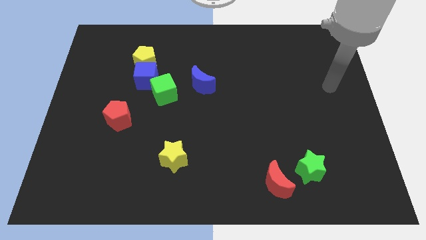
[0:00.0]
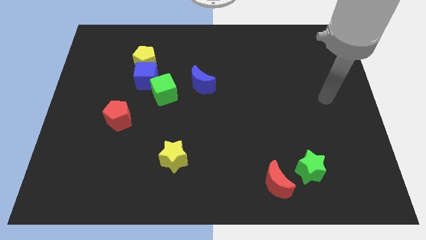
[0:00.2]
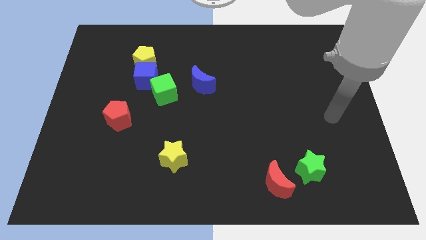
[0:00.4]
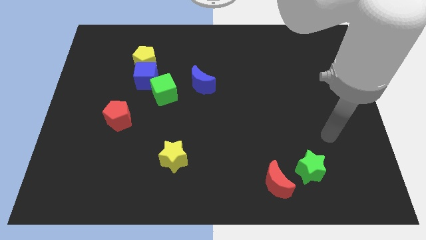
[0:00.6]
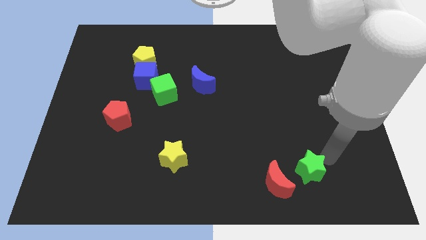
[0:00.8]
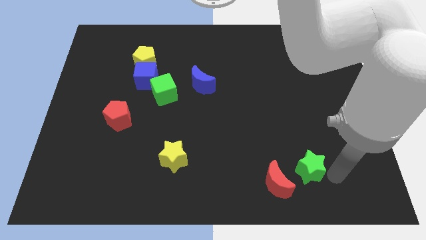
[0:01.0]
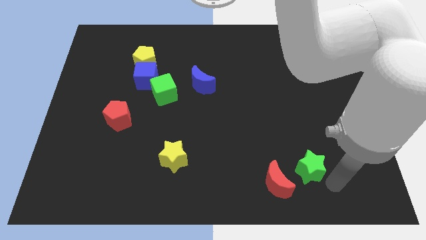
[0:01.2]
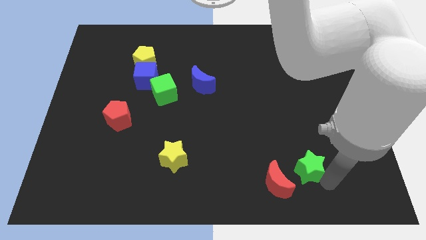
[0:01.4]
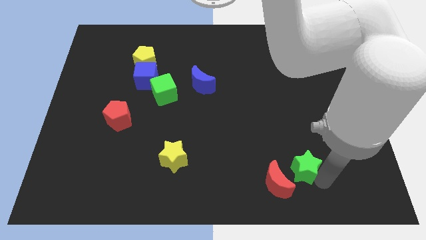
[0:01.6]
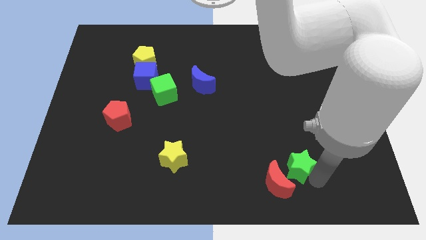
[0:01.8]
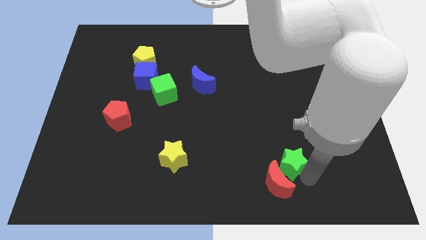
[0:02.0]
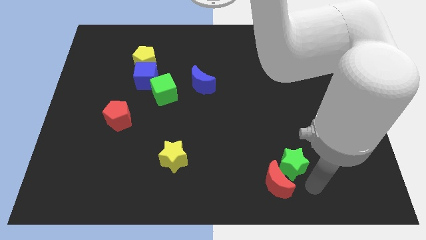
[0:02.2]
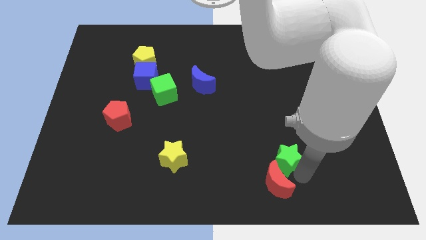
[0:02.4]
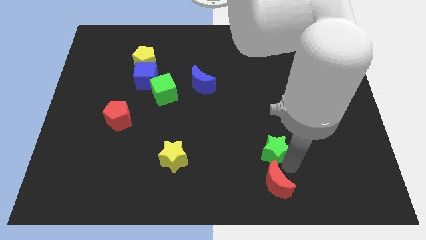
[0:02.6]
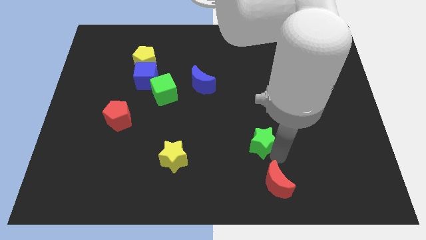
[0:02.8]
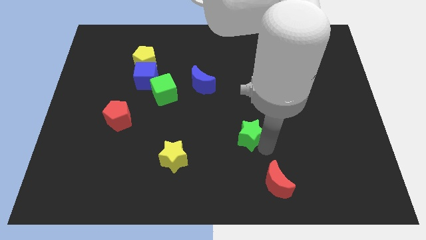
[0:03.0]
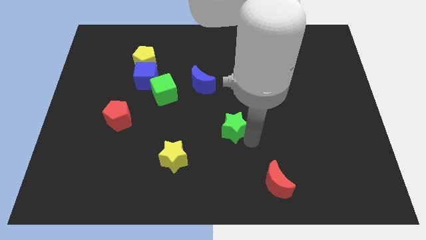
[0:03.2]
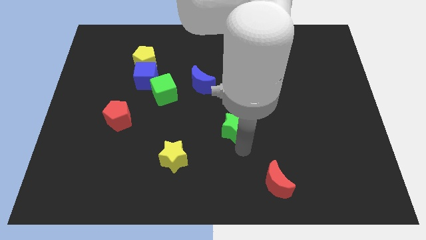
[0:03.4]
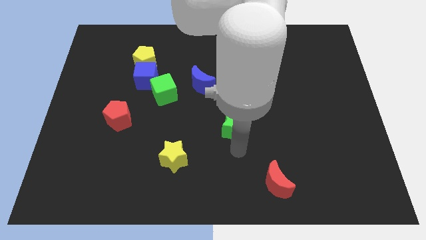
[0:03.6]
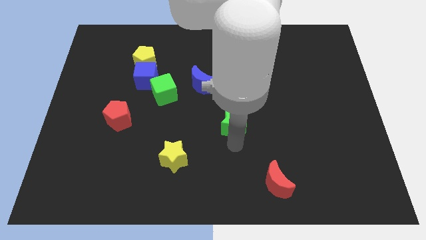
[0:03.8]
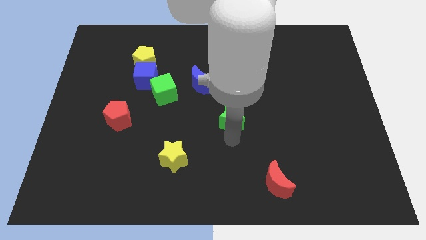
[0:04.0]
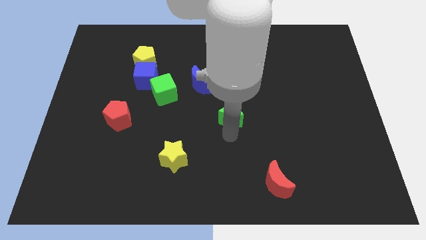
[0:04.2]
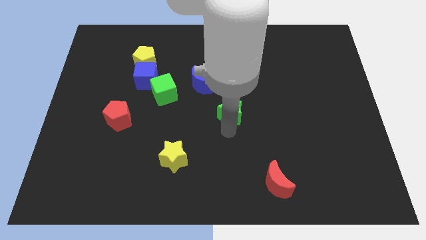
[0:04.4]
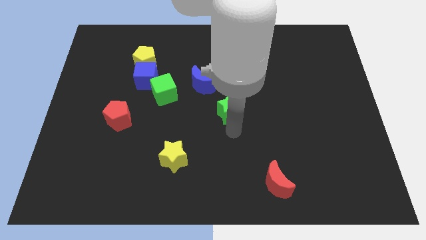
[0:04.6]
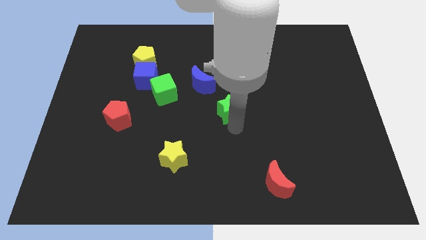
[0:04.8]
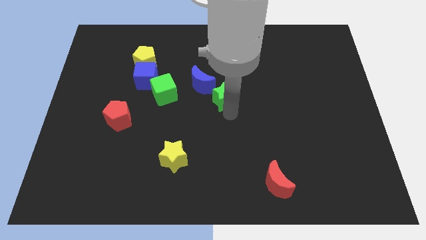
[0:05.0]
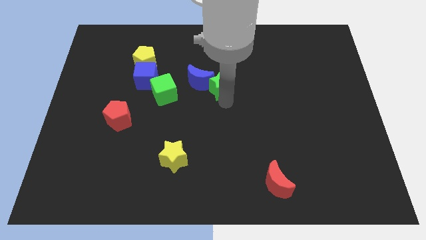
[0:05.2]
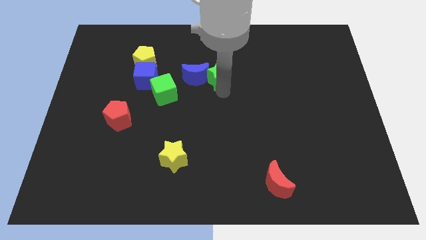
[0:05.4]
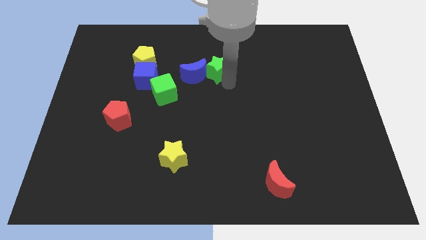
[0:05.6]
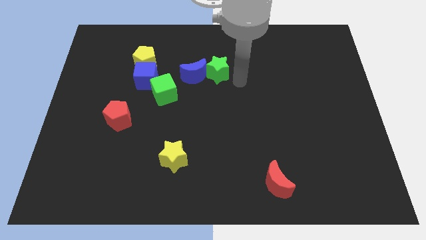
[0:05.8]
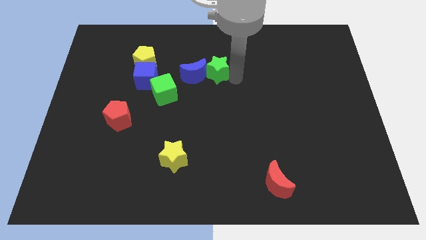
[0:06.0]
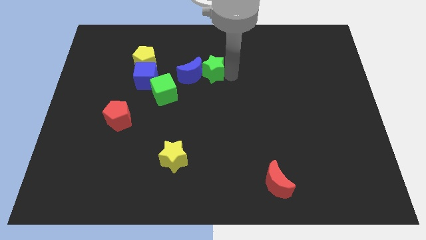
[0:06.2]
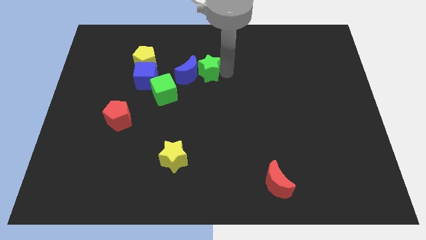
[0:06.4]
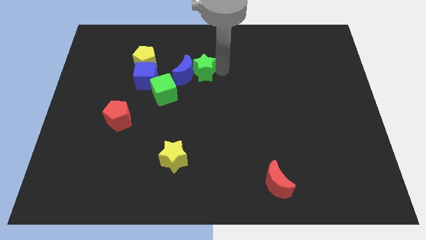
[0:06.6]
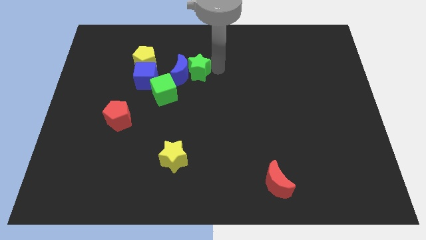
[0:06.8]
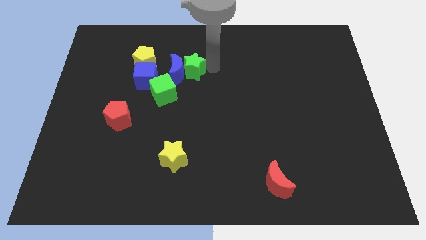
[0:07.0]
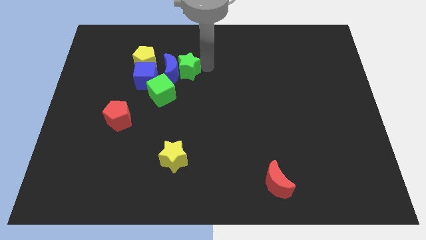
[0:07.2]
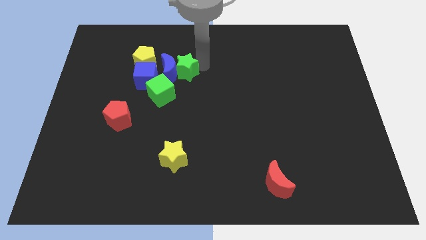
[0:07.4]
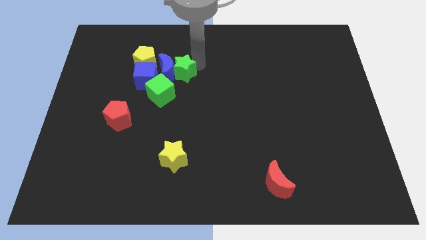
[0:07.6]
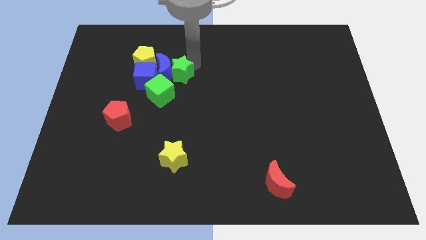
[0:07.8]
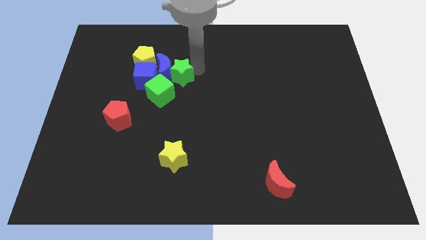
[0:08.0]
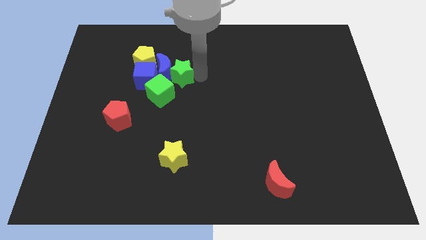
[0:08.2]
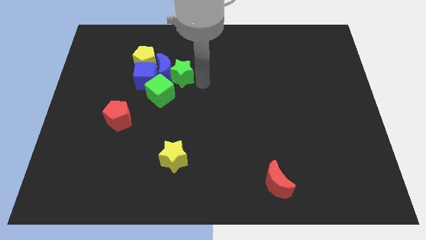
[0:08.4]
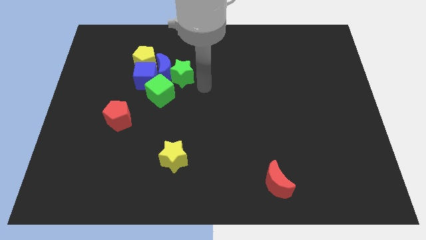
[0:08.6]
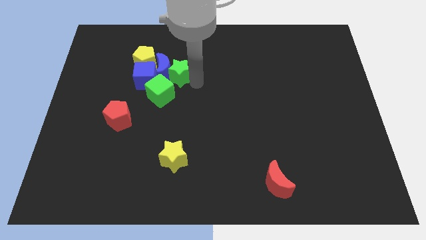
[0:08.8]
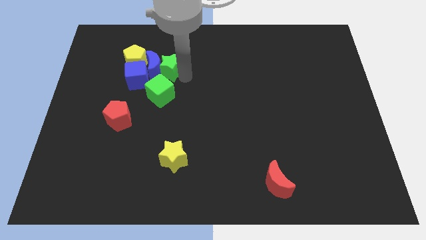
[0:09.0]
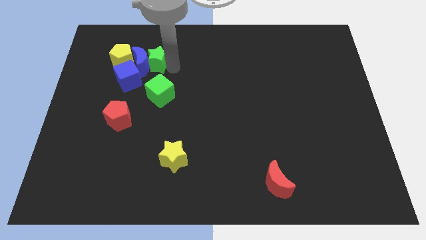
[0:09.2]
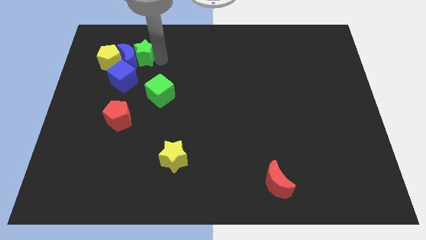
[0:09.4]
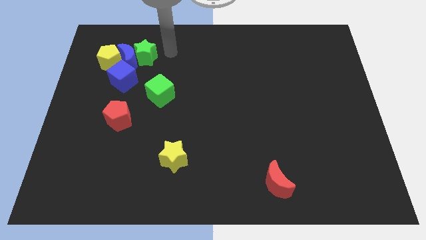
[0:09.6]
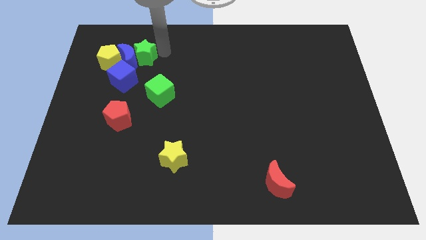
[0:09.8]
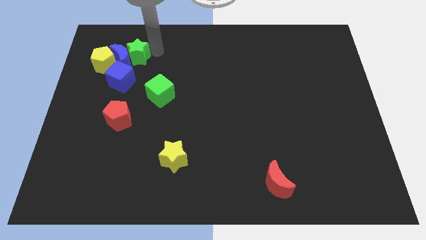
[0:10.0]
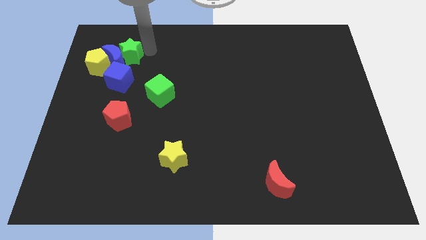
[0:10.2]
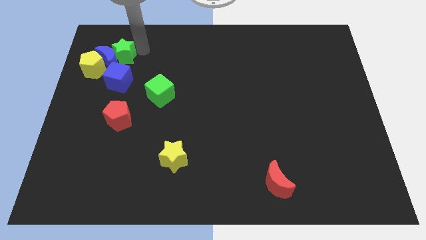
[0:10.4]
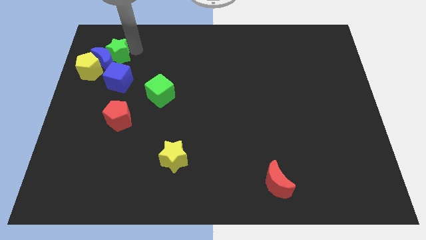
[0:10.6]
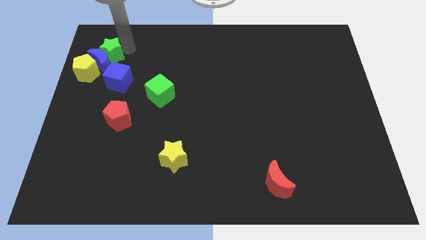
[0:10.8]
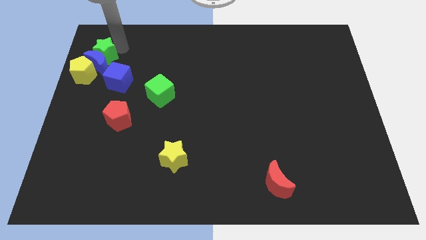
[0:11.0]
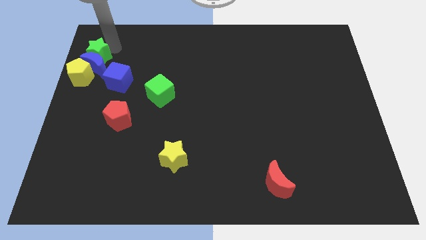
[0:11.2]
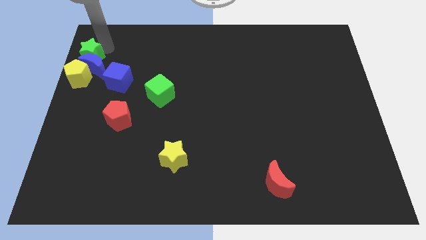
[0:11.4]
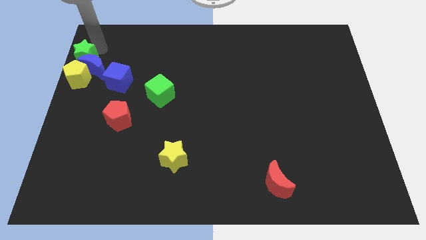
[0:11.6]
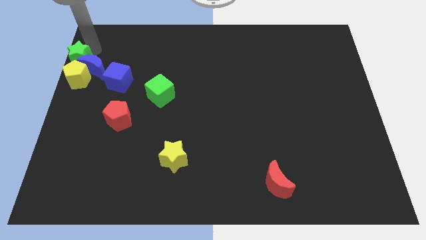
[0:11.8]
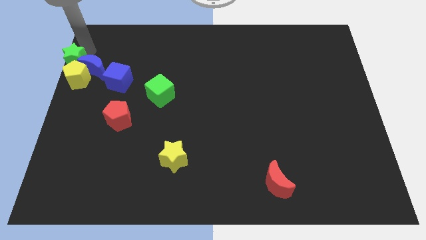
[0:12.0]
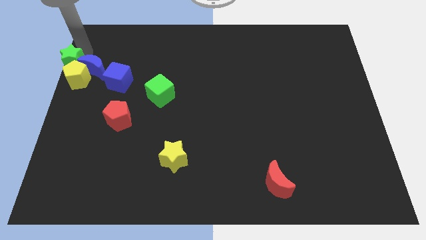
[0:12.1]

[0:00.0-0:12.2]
put the green star close to the yellow pentagon
